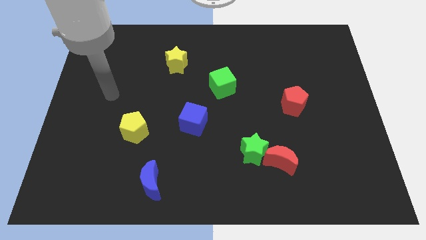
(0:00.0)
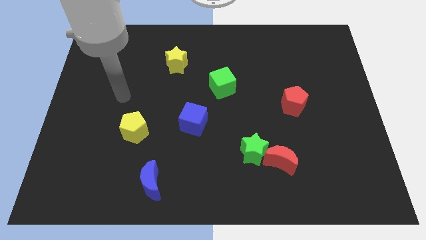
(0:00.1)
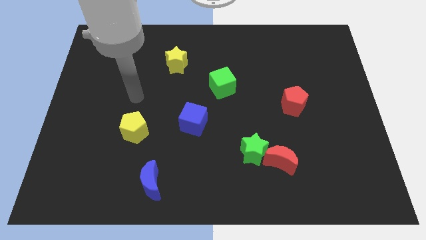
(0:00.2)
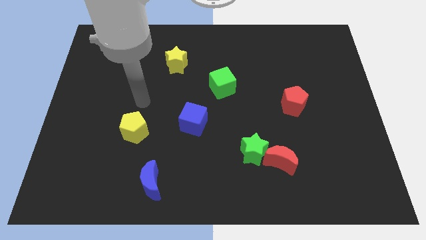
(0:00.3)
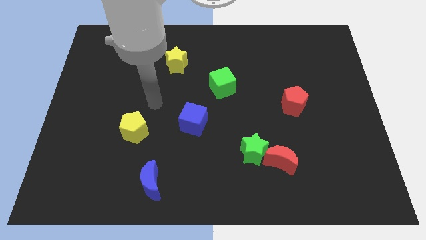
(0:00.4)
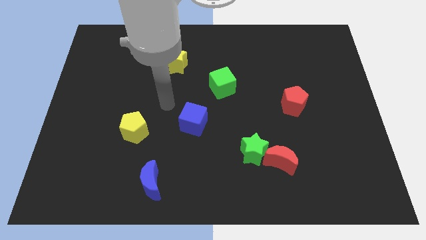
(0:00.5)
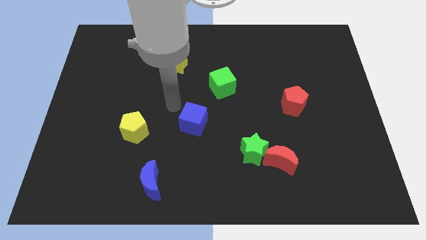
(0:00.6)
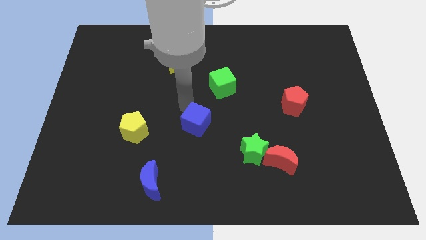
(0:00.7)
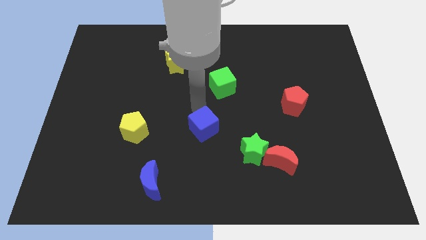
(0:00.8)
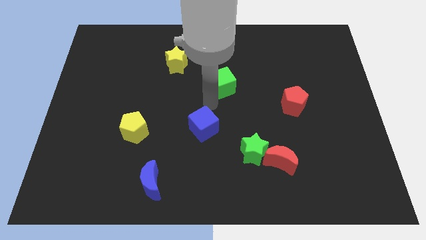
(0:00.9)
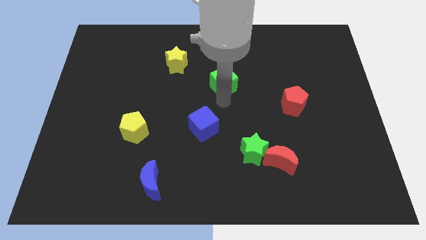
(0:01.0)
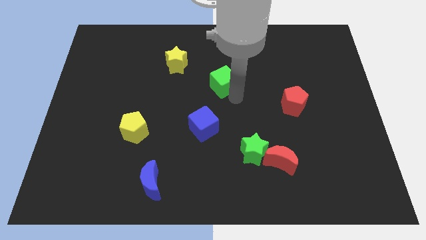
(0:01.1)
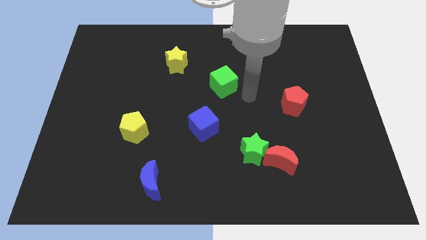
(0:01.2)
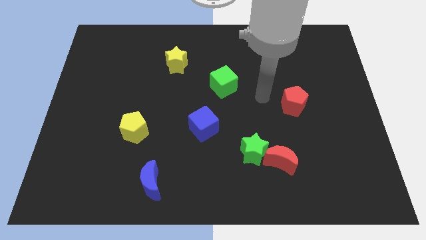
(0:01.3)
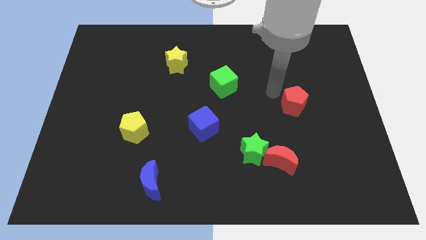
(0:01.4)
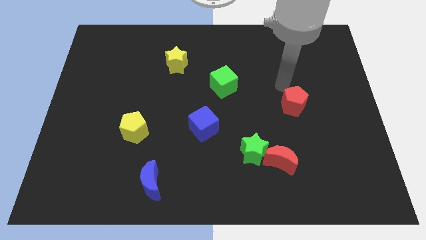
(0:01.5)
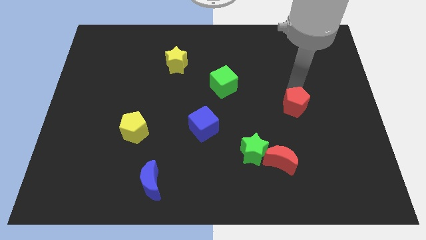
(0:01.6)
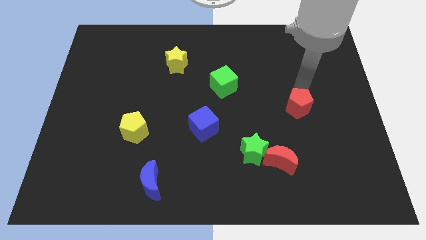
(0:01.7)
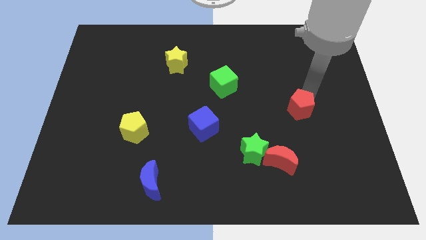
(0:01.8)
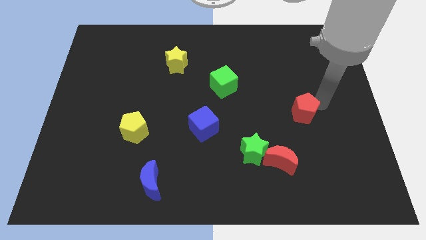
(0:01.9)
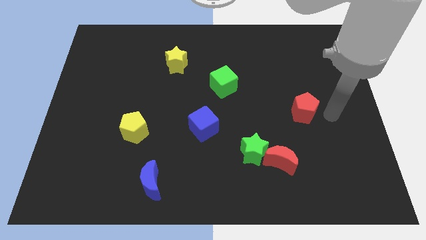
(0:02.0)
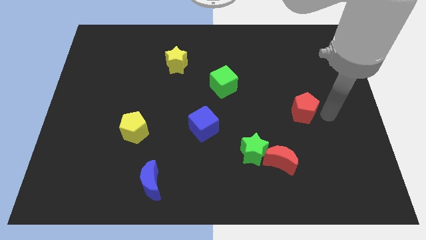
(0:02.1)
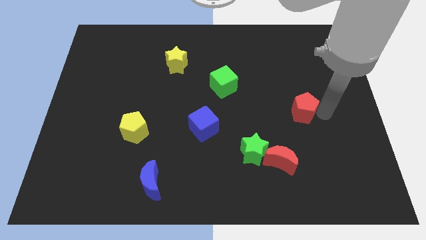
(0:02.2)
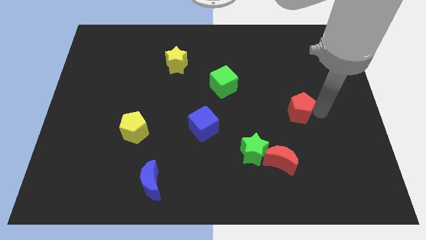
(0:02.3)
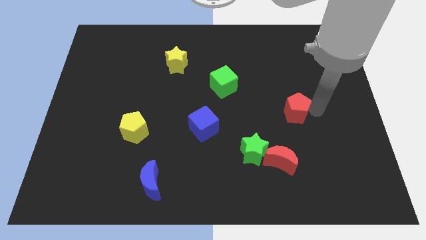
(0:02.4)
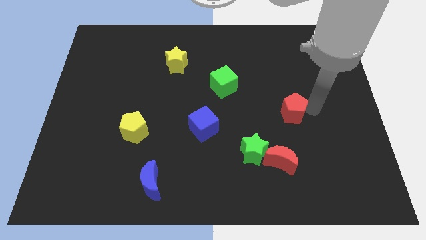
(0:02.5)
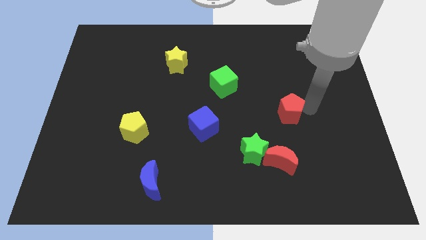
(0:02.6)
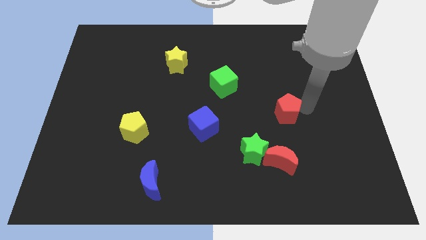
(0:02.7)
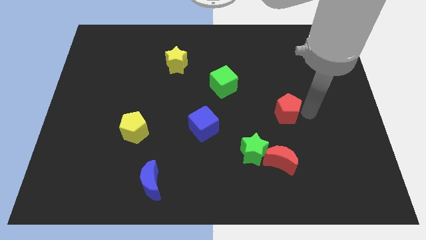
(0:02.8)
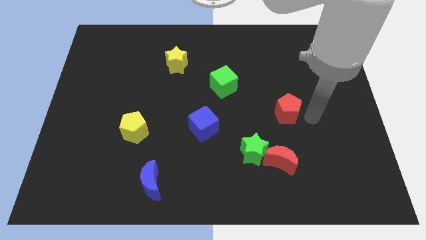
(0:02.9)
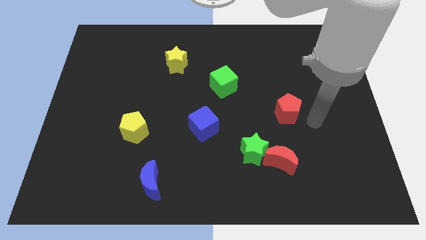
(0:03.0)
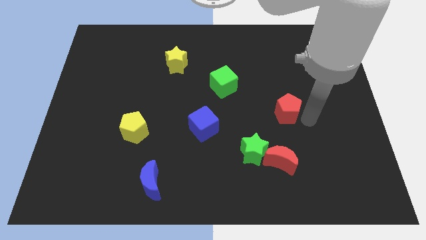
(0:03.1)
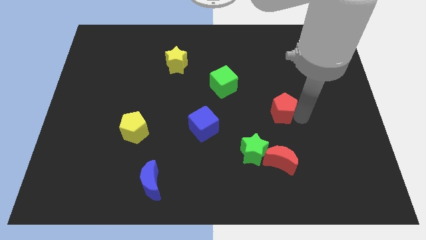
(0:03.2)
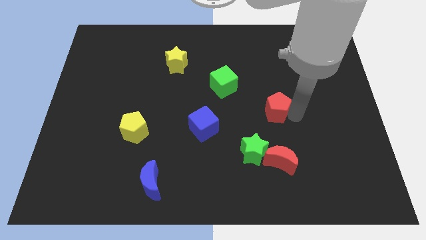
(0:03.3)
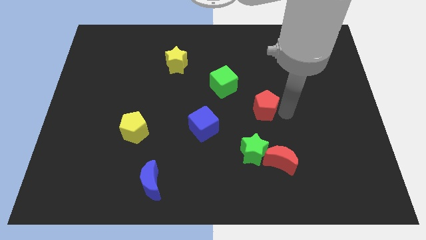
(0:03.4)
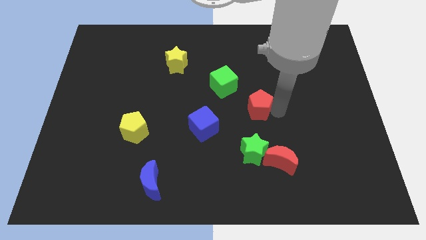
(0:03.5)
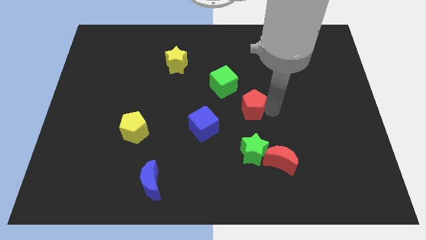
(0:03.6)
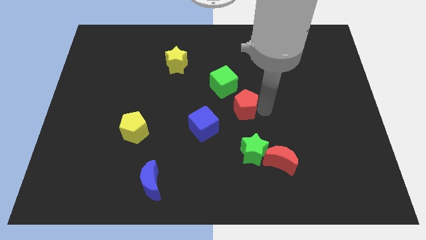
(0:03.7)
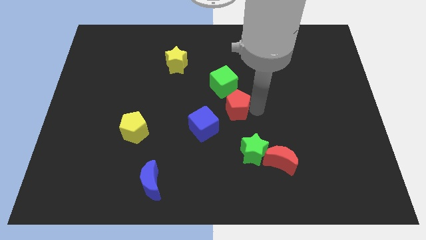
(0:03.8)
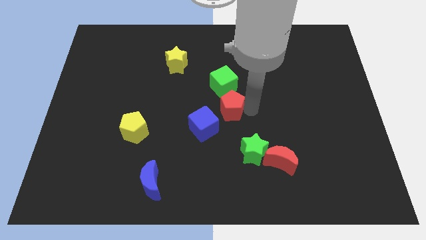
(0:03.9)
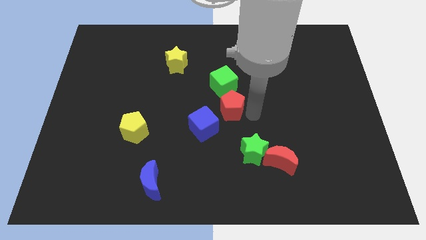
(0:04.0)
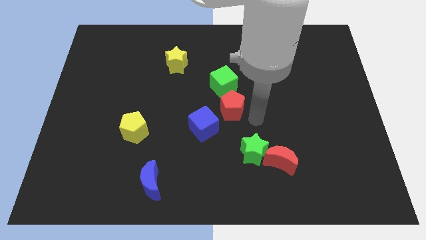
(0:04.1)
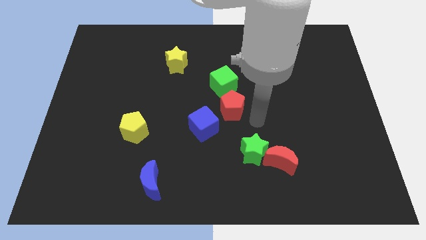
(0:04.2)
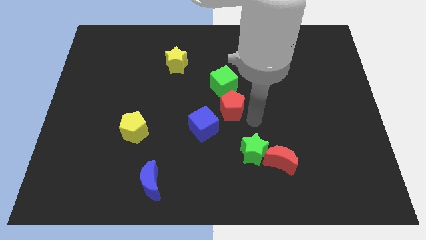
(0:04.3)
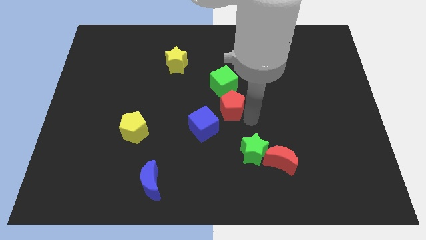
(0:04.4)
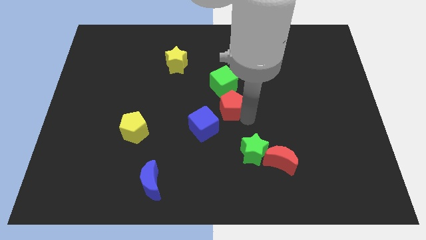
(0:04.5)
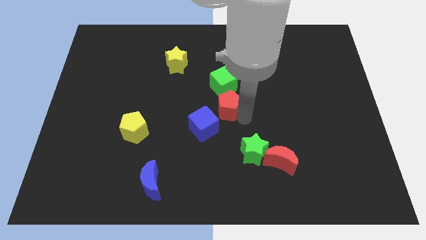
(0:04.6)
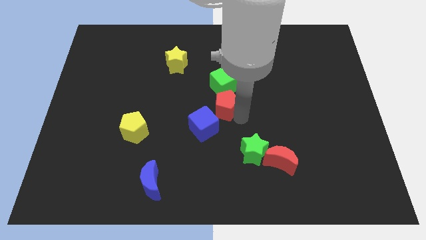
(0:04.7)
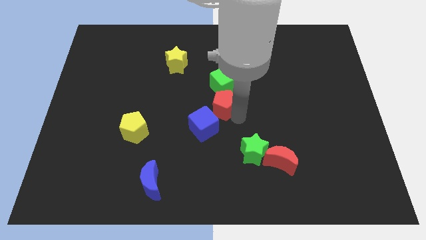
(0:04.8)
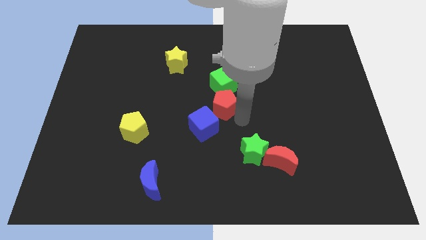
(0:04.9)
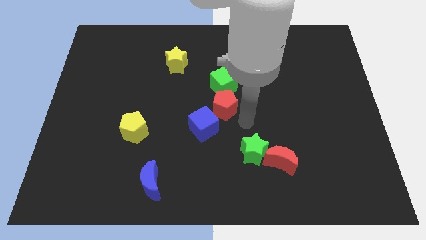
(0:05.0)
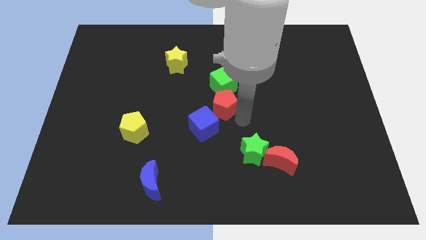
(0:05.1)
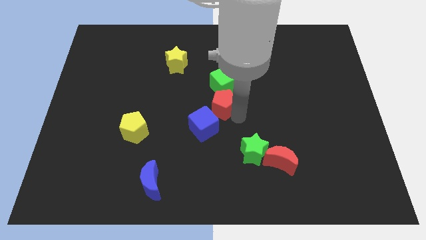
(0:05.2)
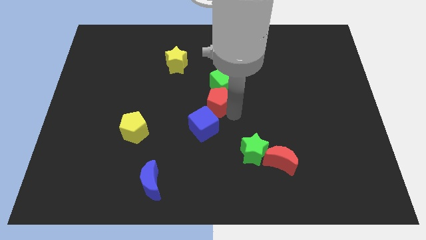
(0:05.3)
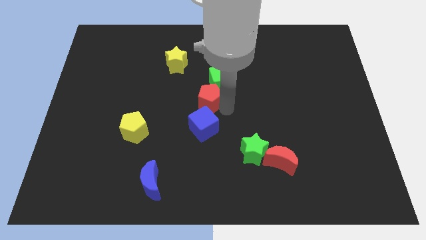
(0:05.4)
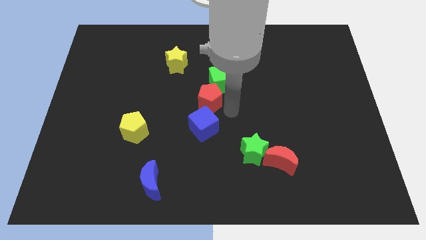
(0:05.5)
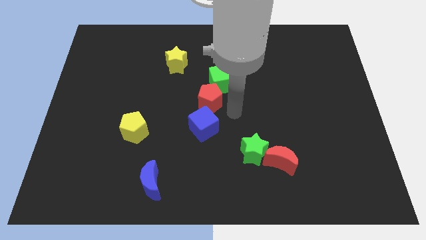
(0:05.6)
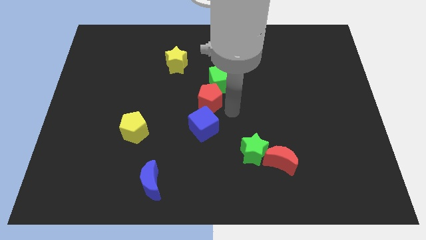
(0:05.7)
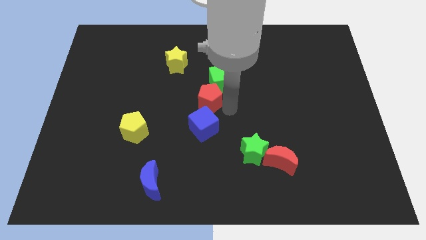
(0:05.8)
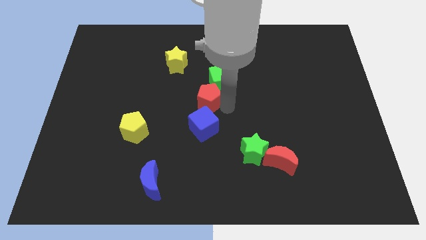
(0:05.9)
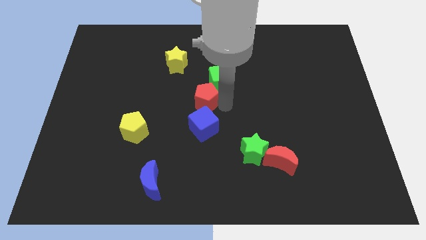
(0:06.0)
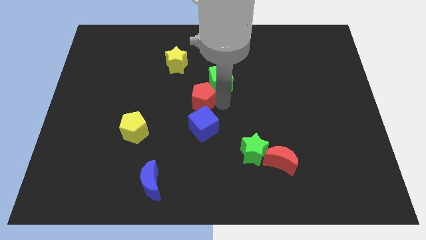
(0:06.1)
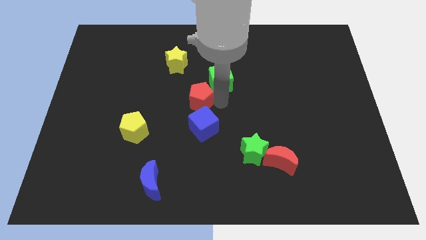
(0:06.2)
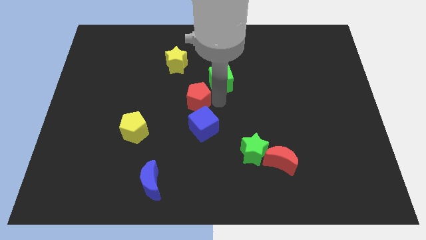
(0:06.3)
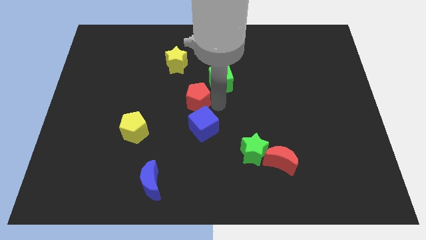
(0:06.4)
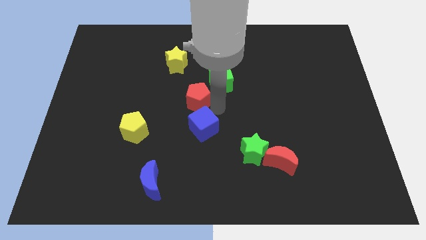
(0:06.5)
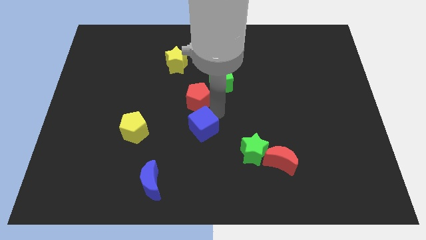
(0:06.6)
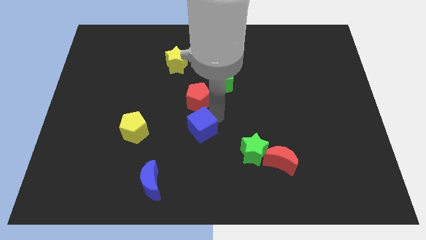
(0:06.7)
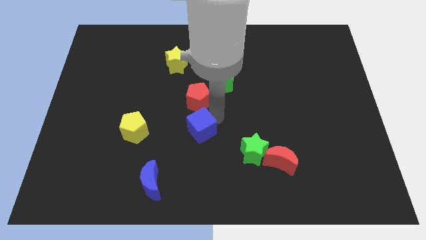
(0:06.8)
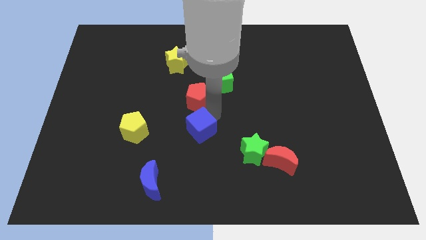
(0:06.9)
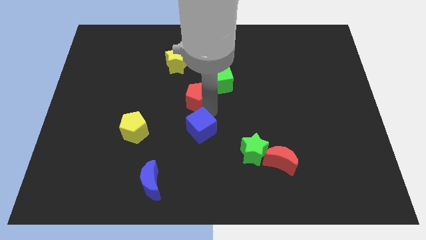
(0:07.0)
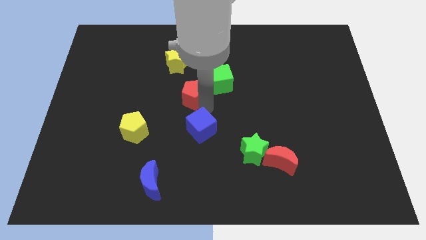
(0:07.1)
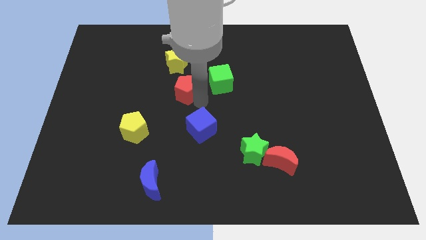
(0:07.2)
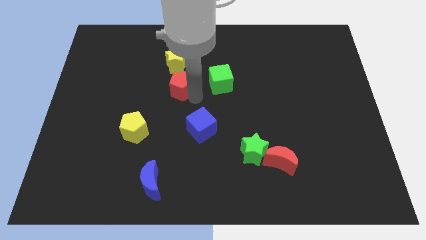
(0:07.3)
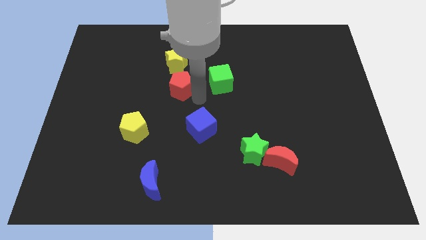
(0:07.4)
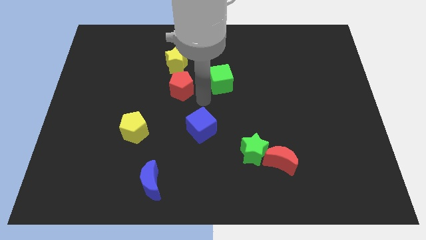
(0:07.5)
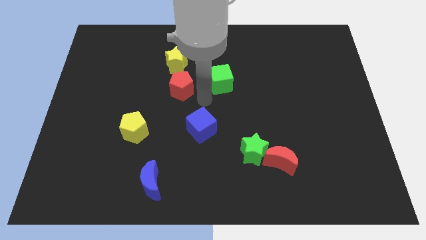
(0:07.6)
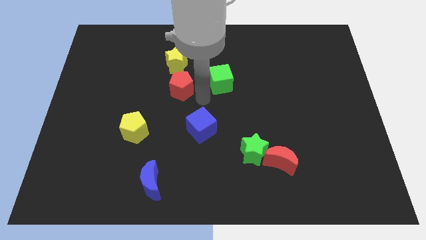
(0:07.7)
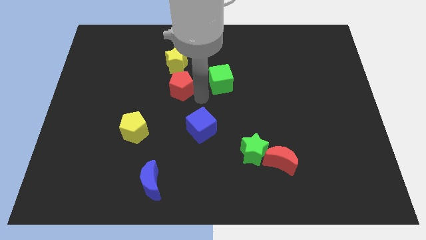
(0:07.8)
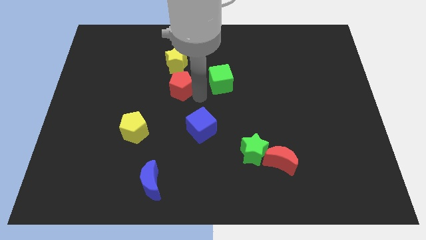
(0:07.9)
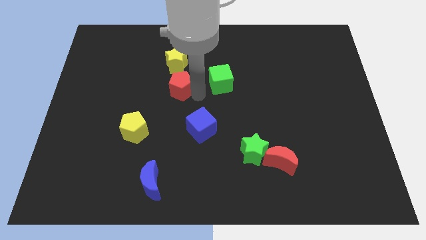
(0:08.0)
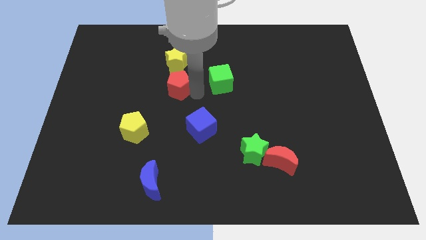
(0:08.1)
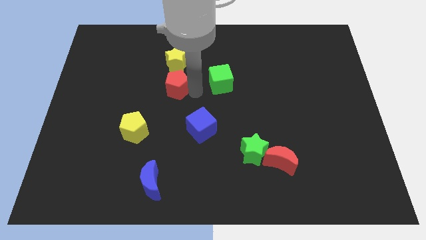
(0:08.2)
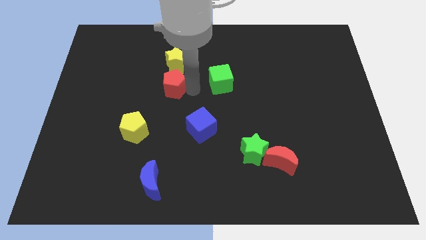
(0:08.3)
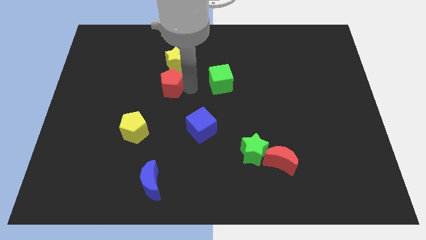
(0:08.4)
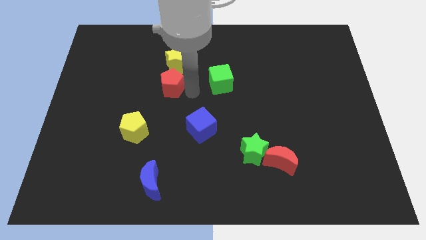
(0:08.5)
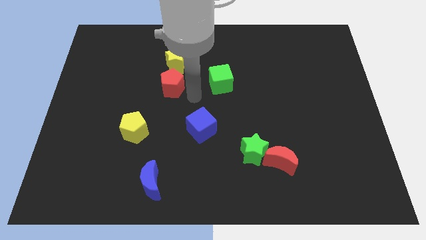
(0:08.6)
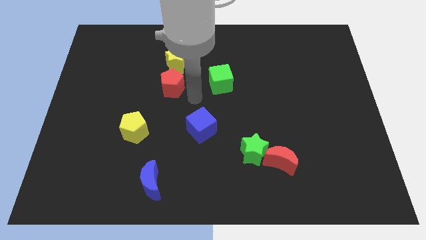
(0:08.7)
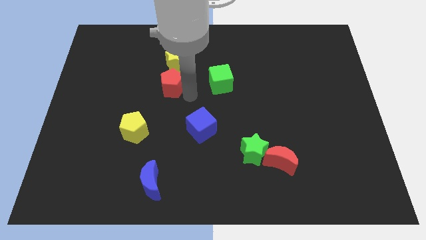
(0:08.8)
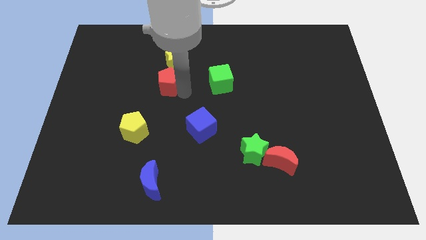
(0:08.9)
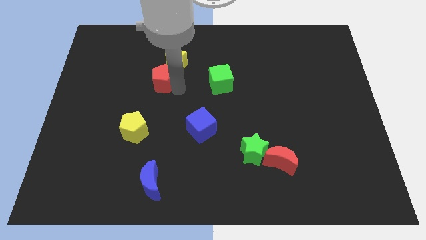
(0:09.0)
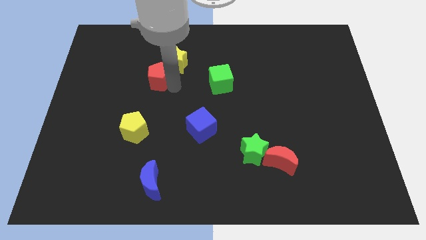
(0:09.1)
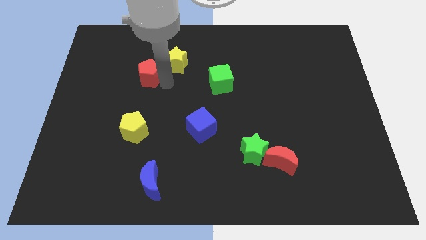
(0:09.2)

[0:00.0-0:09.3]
push the red pentagon to the left side of the yellow star
